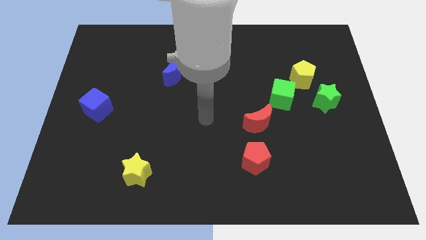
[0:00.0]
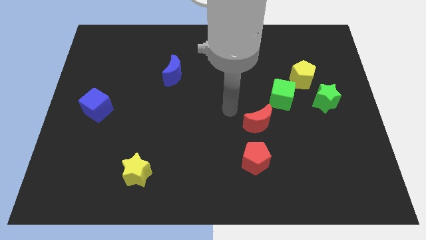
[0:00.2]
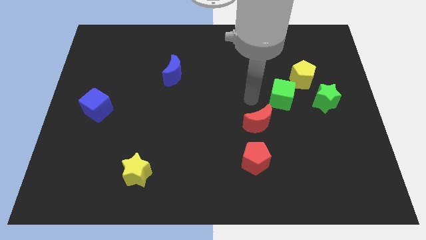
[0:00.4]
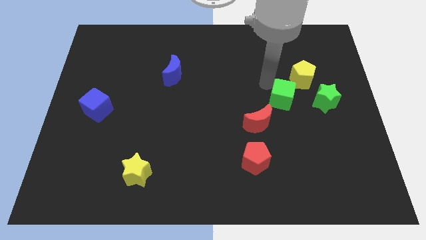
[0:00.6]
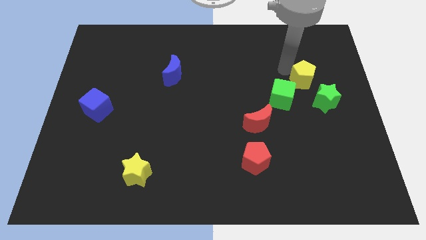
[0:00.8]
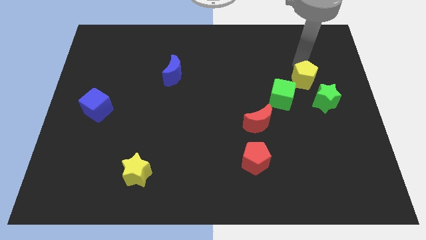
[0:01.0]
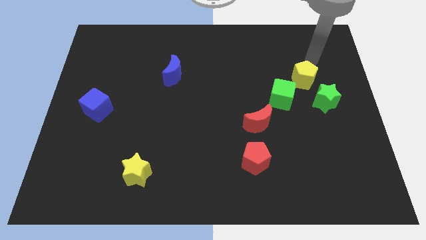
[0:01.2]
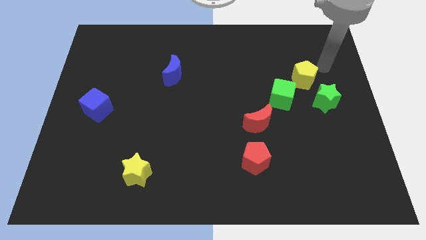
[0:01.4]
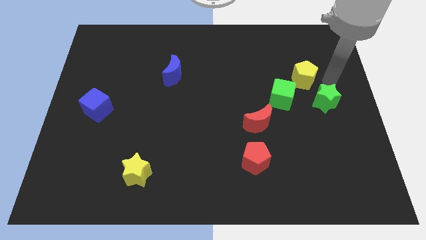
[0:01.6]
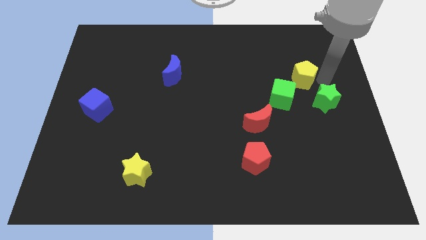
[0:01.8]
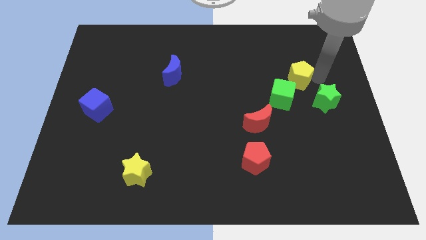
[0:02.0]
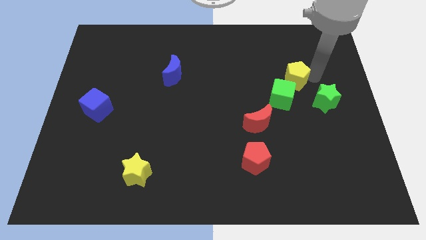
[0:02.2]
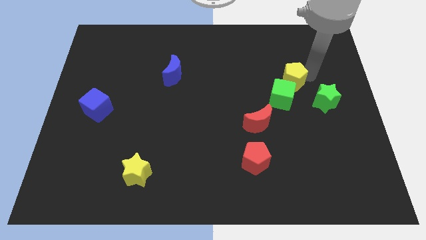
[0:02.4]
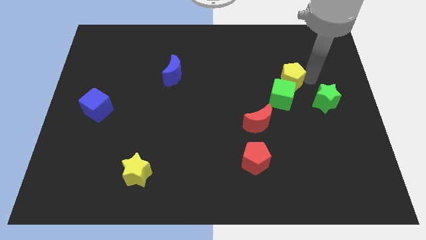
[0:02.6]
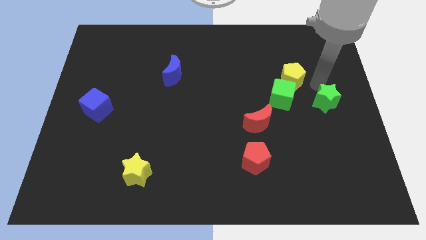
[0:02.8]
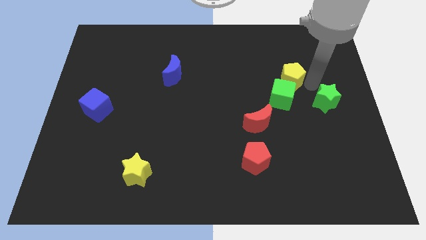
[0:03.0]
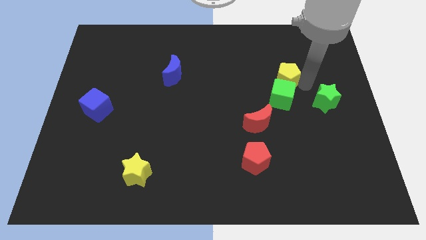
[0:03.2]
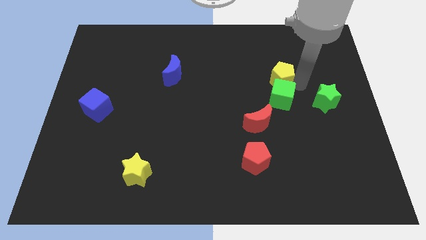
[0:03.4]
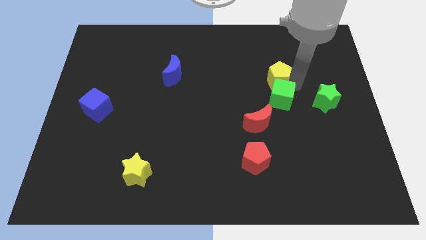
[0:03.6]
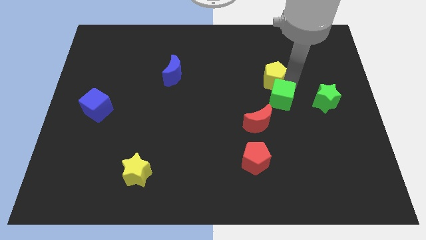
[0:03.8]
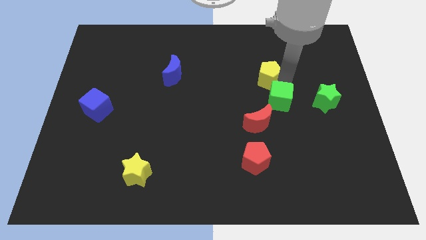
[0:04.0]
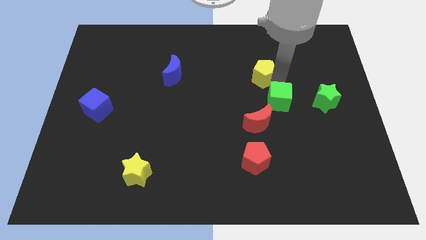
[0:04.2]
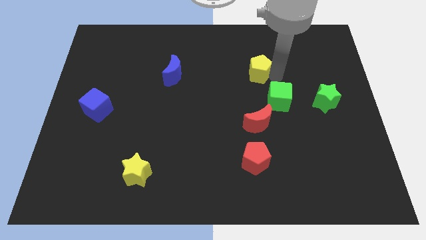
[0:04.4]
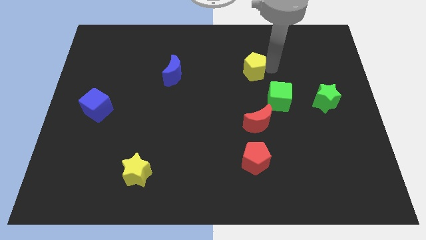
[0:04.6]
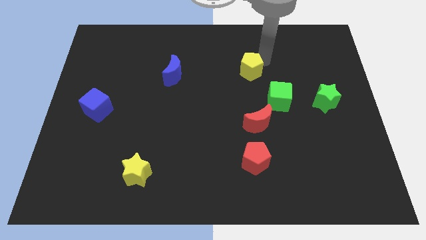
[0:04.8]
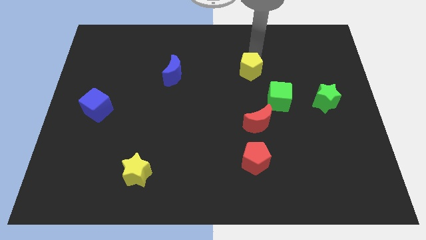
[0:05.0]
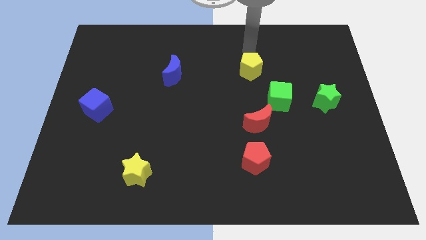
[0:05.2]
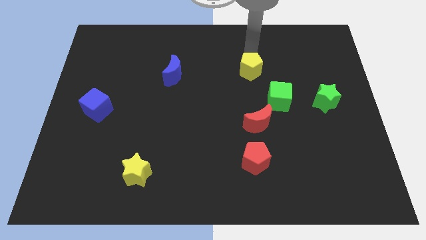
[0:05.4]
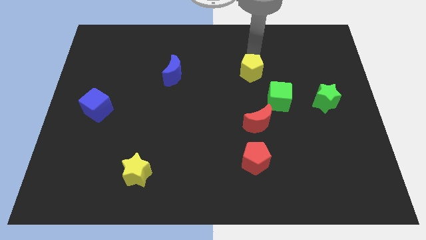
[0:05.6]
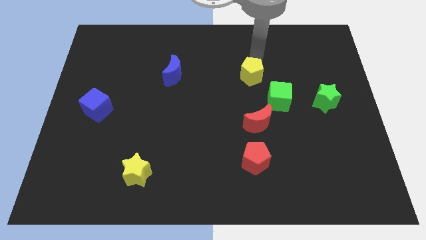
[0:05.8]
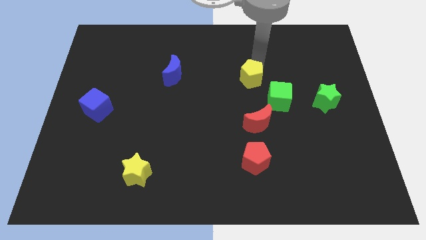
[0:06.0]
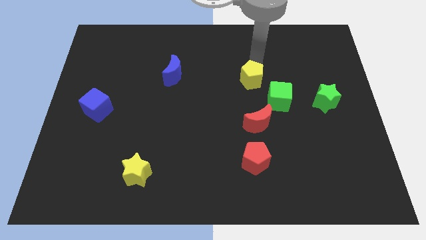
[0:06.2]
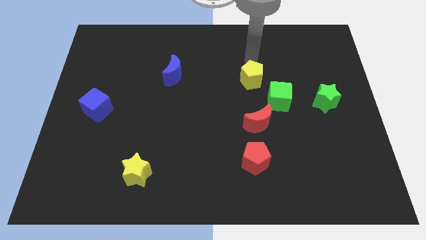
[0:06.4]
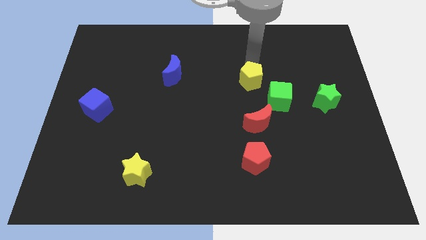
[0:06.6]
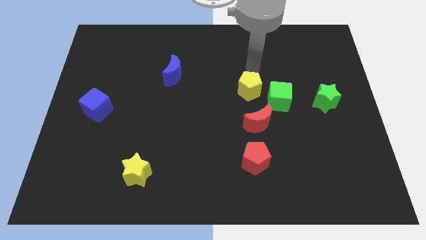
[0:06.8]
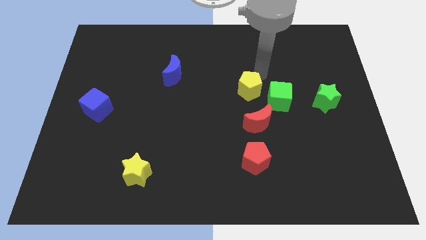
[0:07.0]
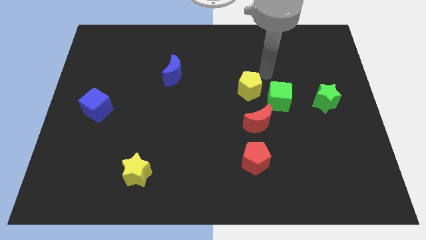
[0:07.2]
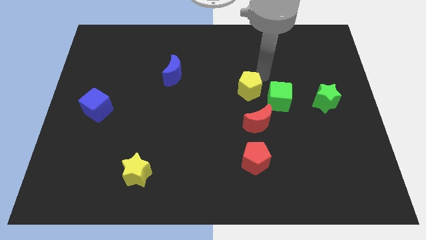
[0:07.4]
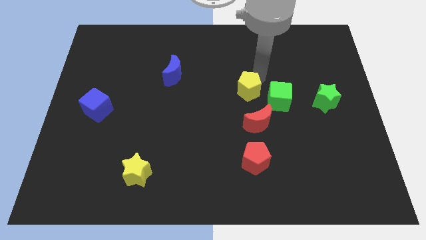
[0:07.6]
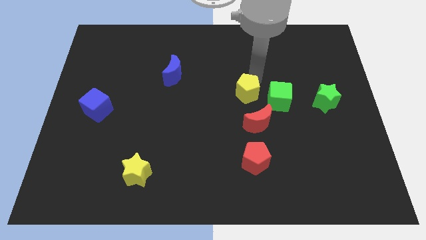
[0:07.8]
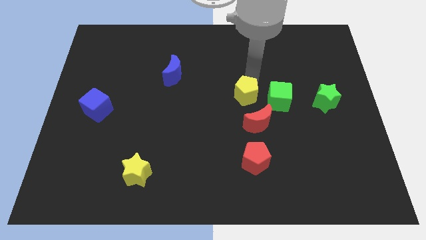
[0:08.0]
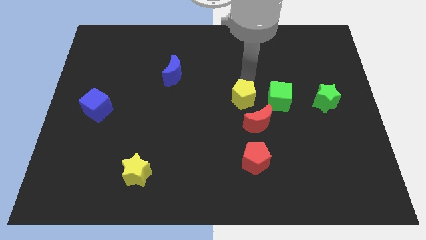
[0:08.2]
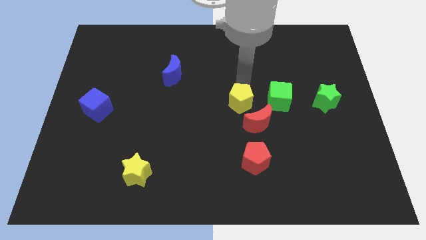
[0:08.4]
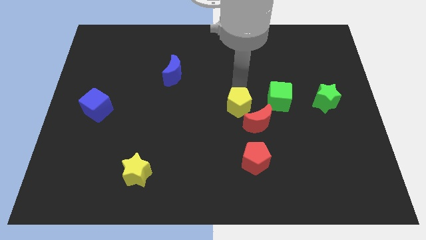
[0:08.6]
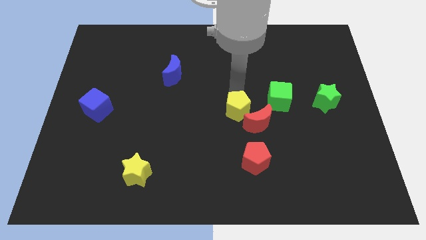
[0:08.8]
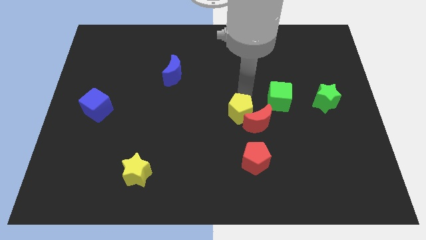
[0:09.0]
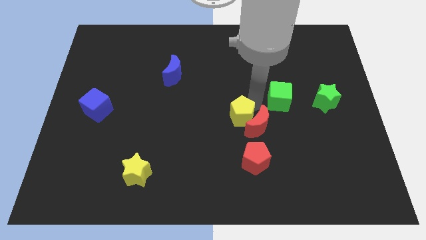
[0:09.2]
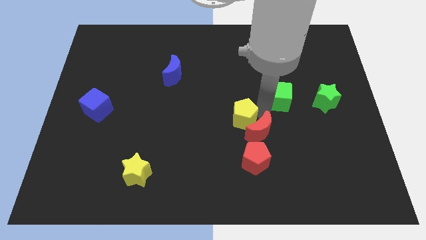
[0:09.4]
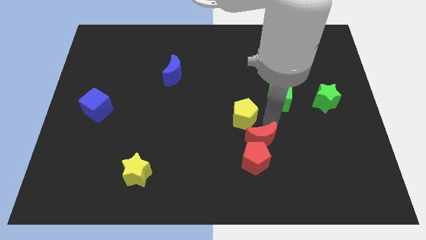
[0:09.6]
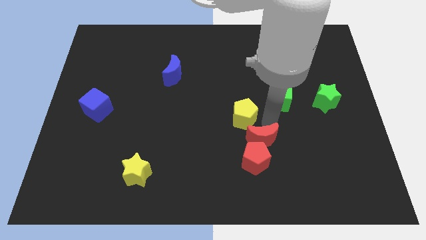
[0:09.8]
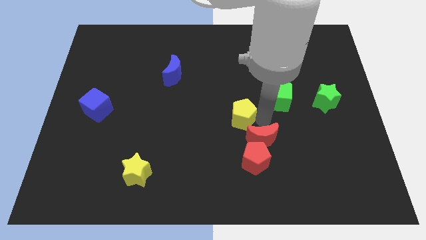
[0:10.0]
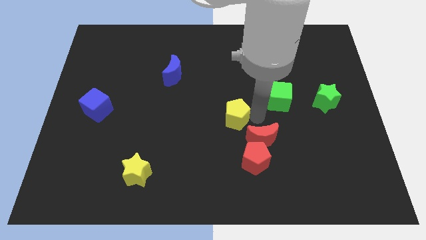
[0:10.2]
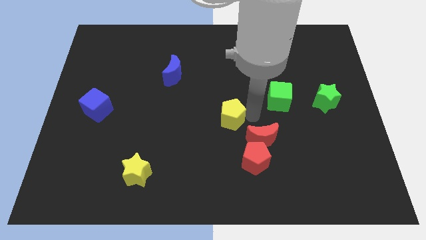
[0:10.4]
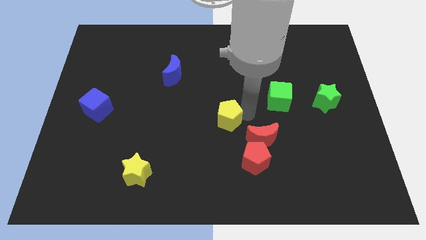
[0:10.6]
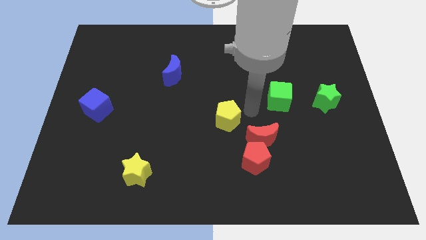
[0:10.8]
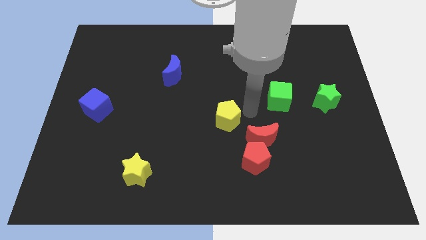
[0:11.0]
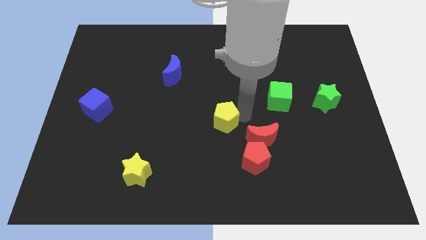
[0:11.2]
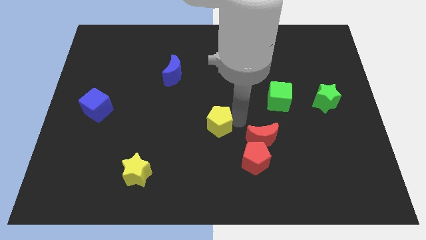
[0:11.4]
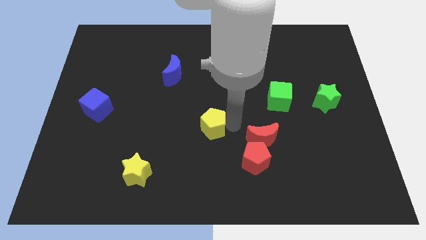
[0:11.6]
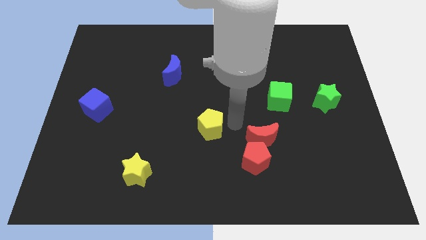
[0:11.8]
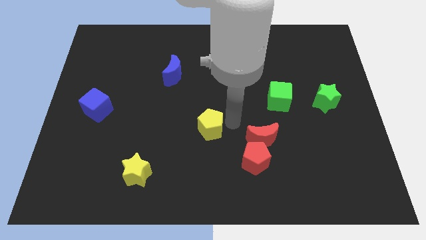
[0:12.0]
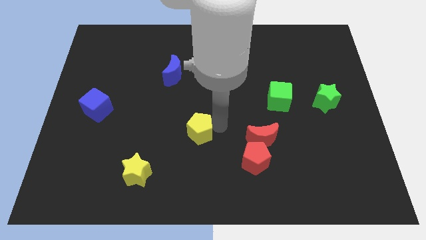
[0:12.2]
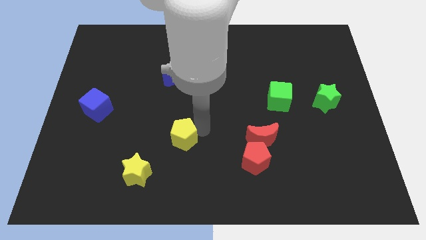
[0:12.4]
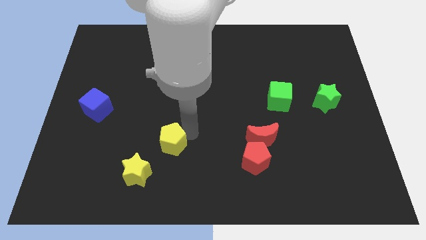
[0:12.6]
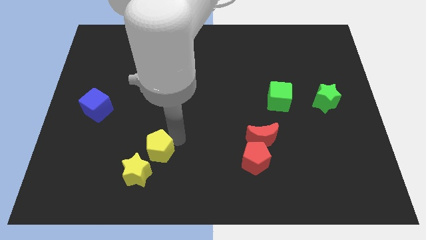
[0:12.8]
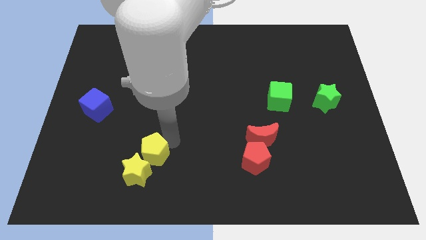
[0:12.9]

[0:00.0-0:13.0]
push the yellow pentagon next to the yellow star
